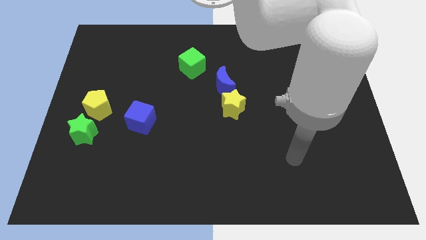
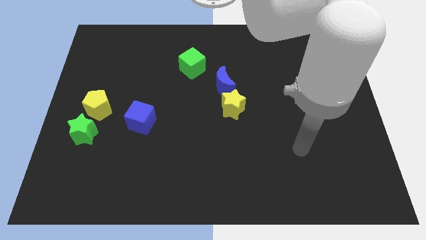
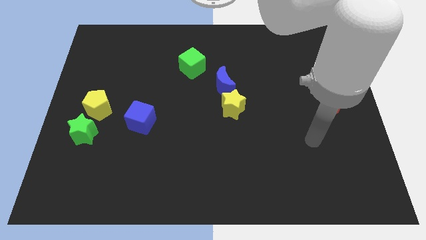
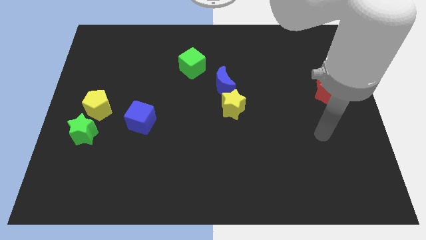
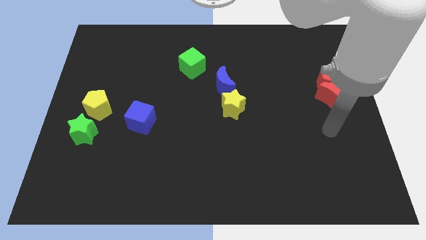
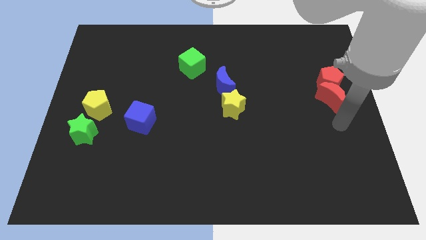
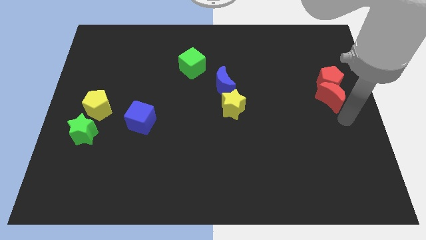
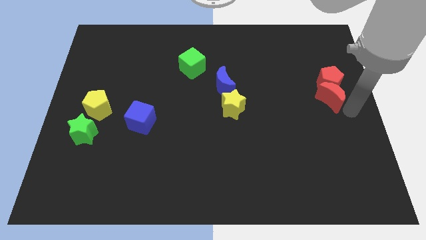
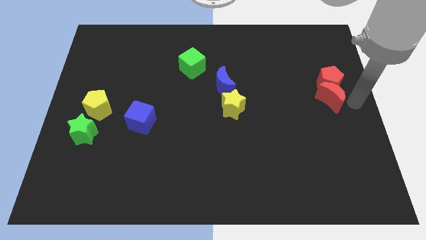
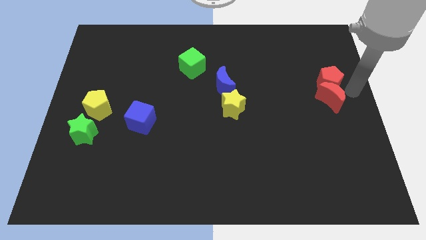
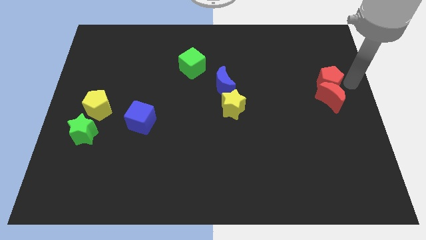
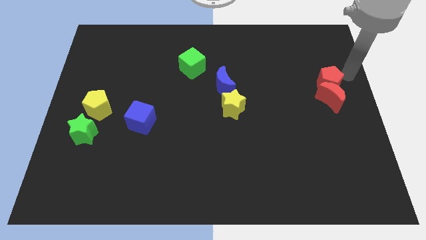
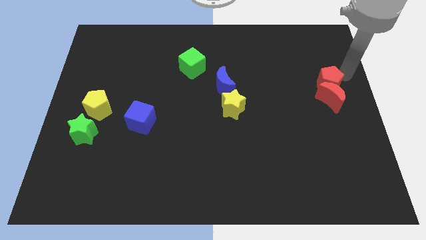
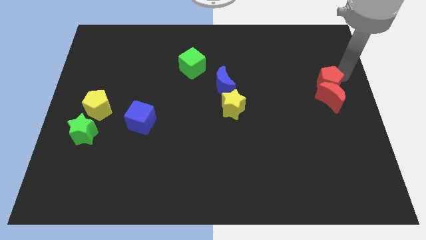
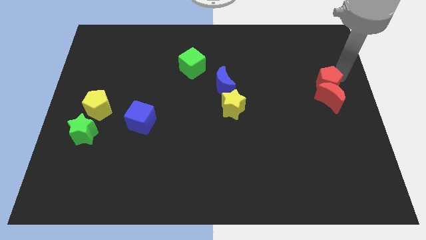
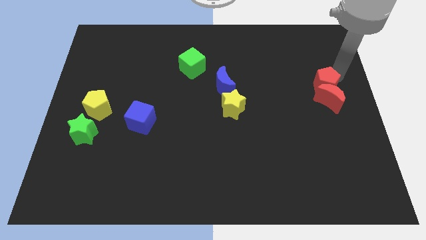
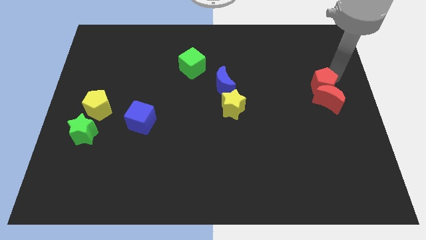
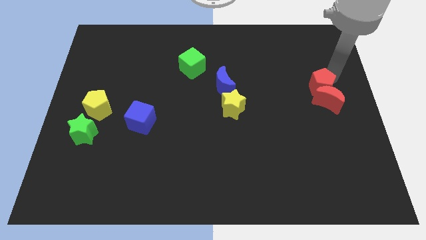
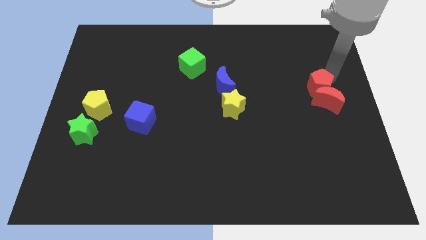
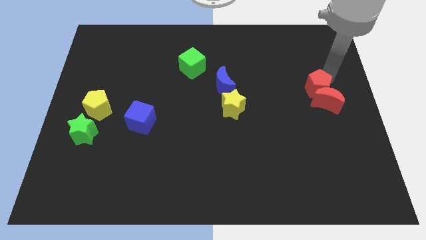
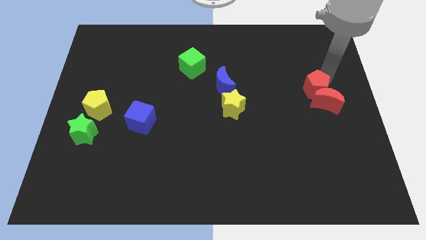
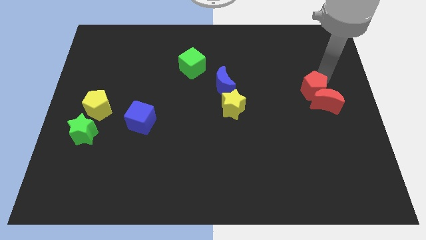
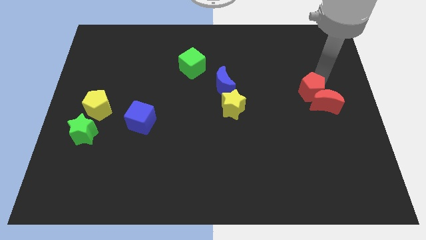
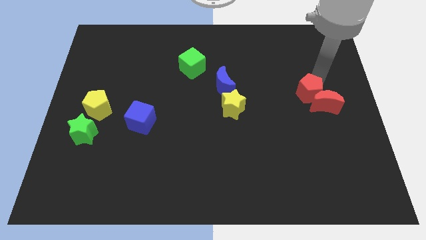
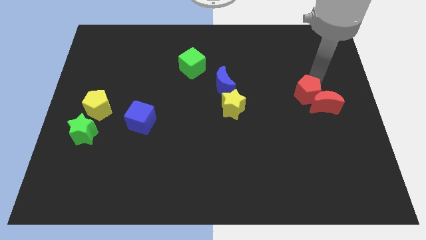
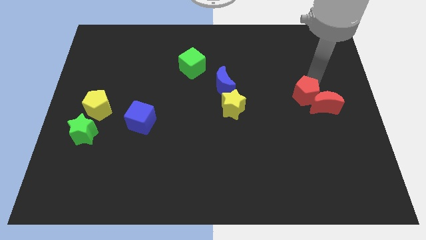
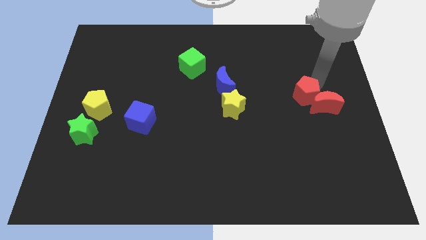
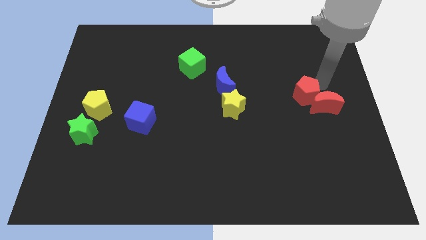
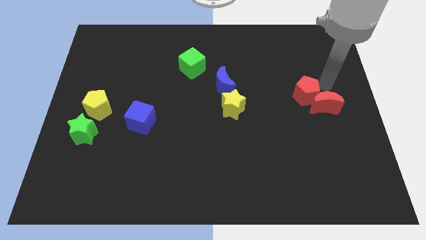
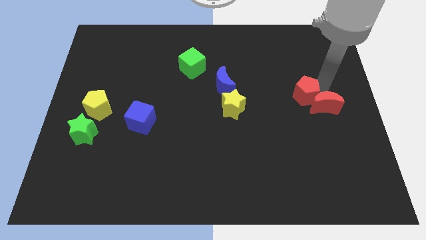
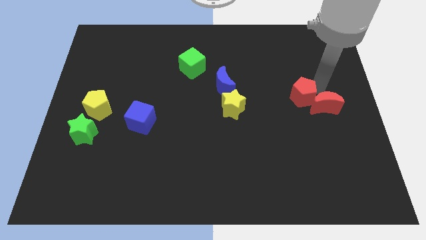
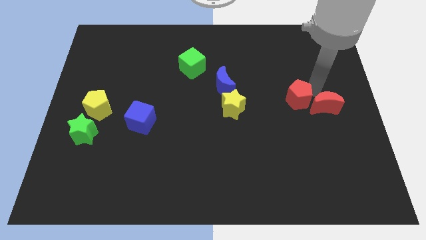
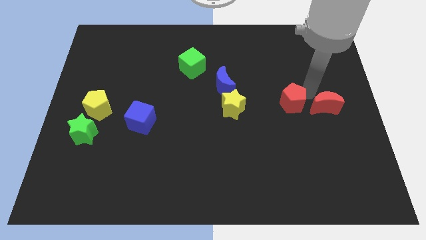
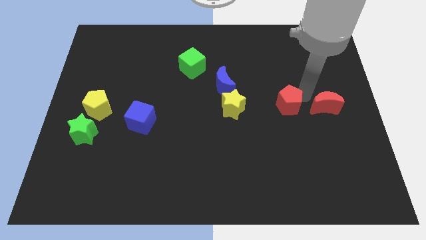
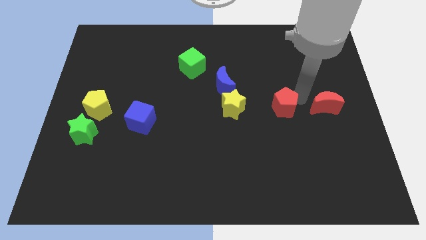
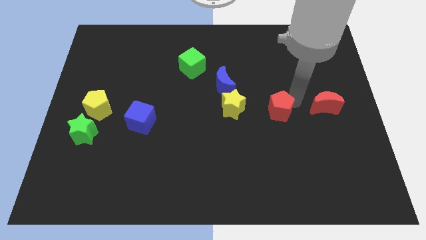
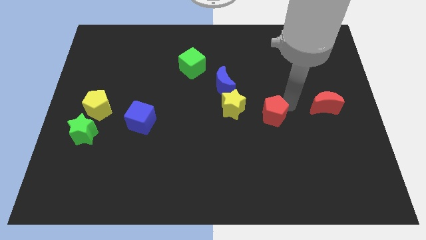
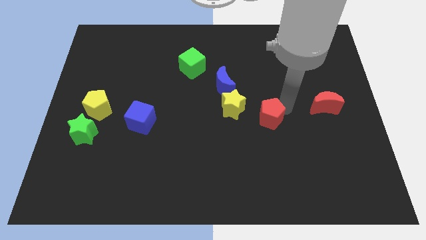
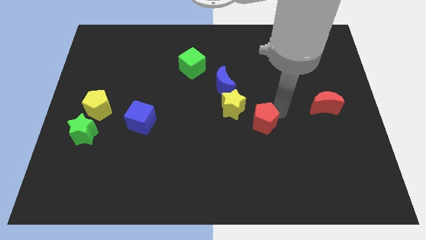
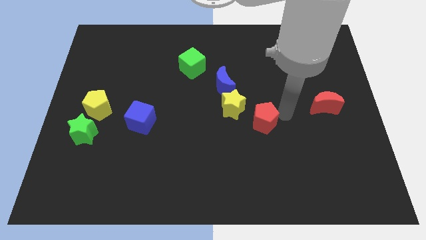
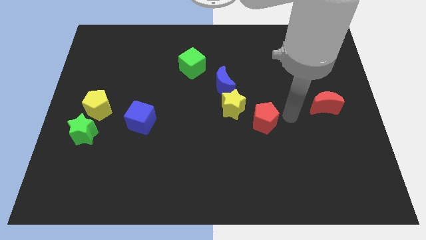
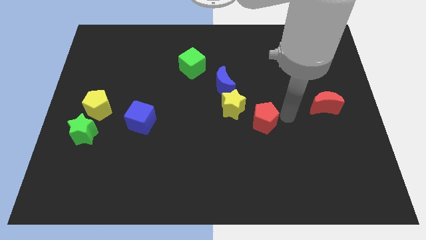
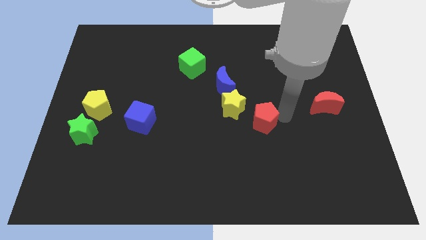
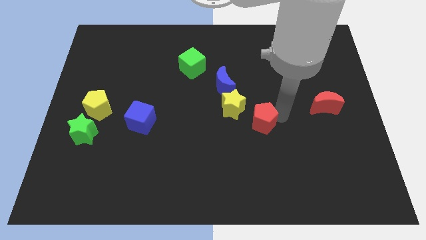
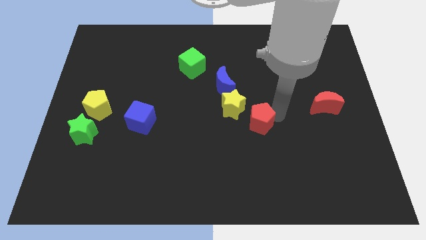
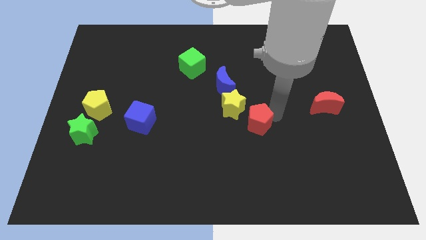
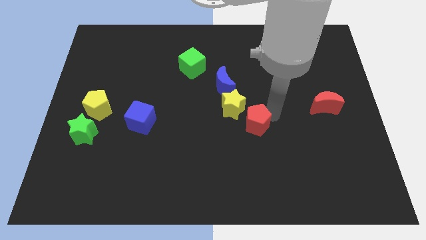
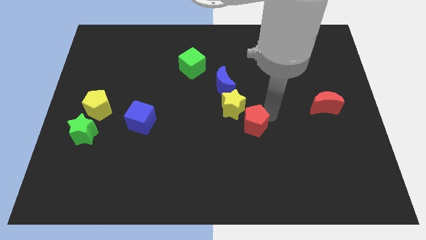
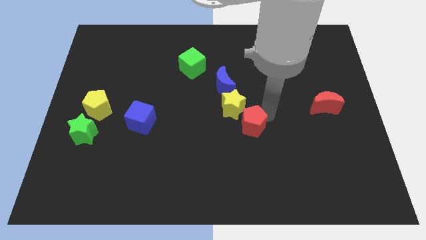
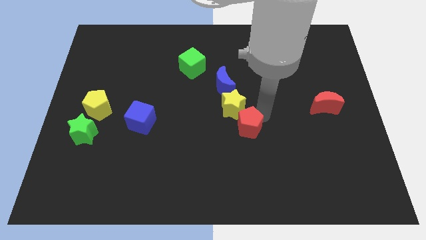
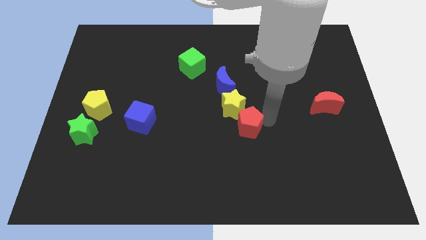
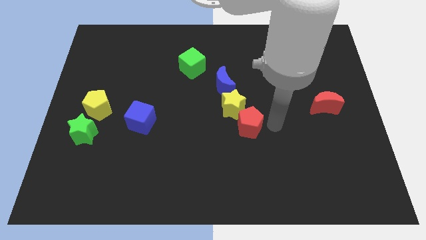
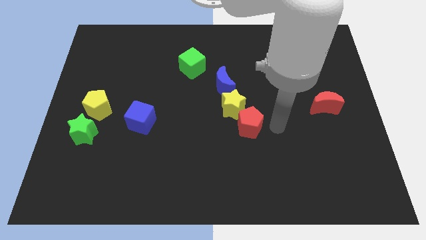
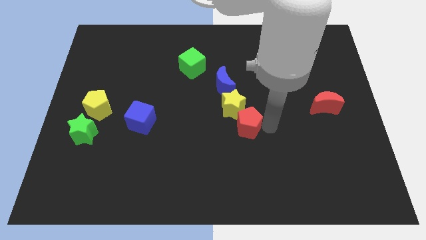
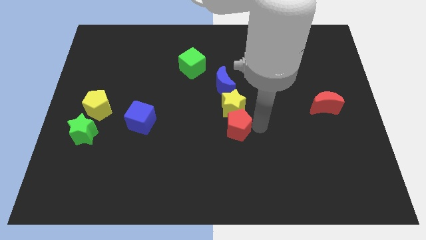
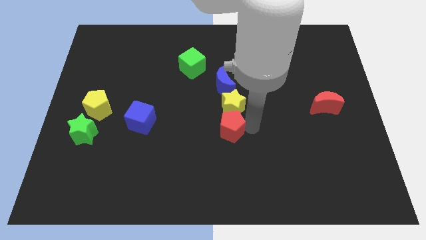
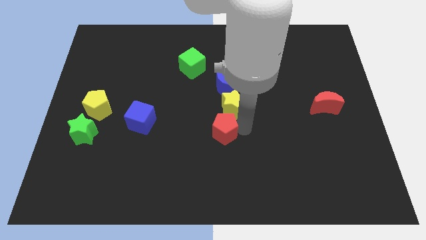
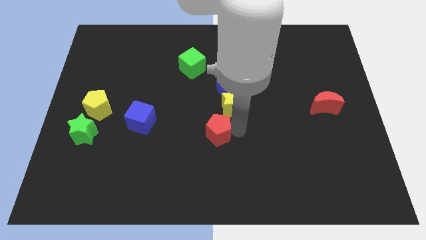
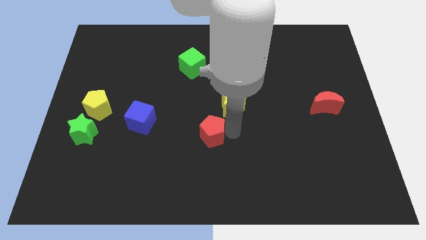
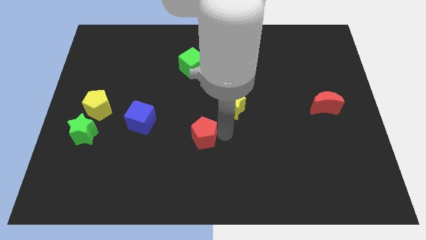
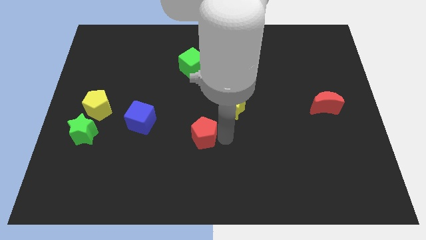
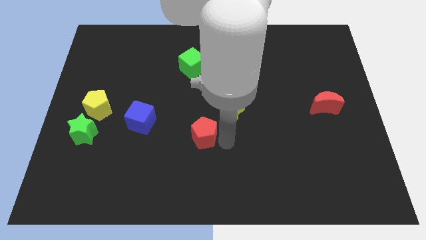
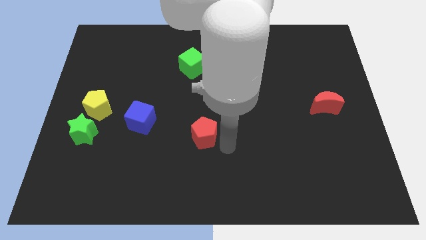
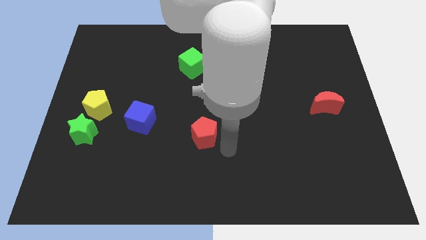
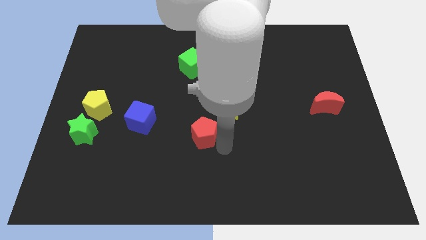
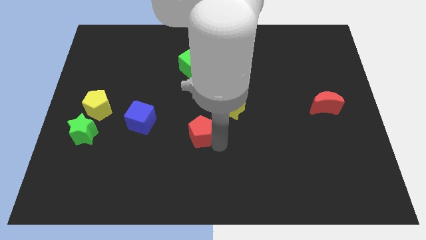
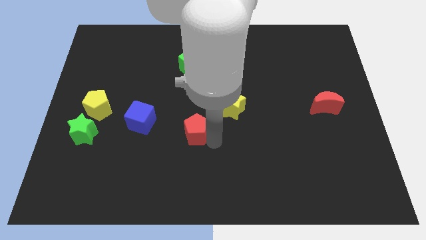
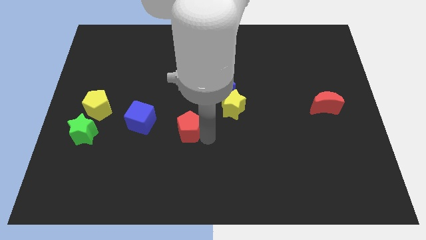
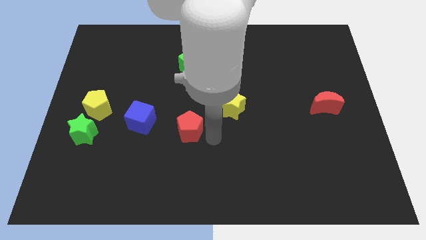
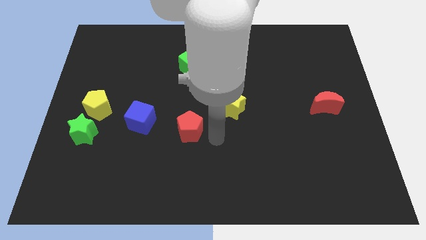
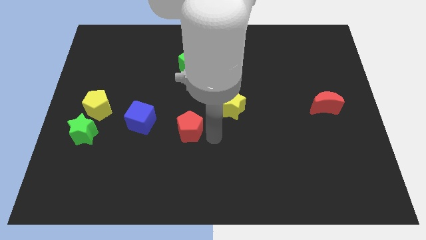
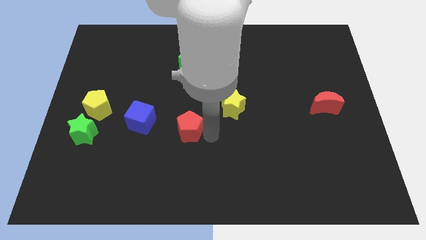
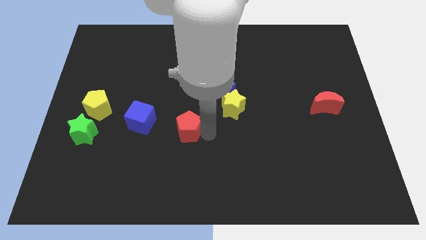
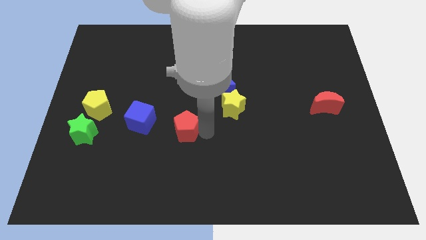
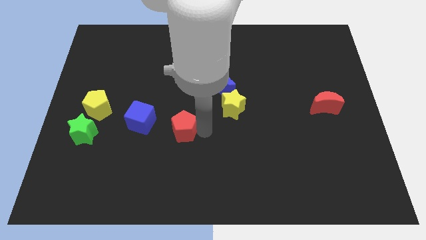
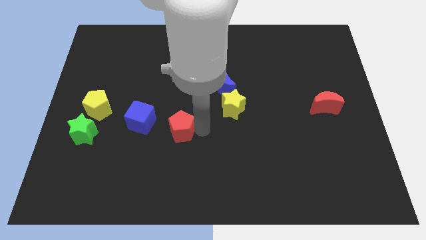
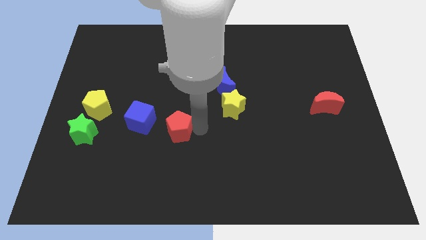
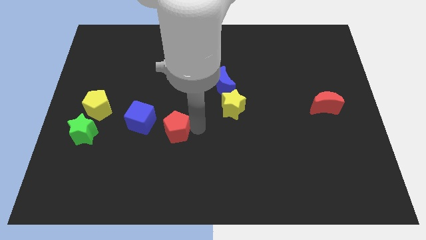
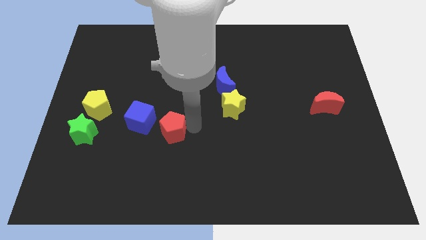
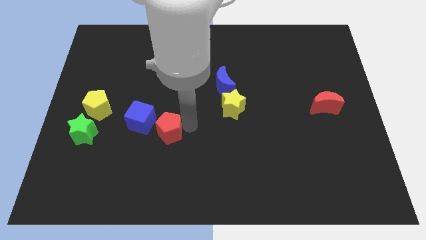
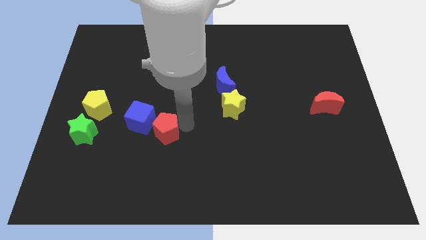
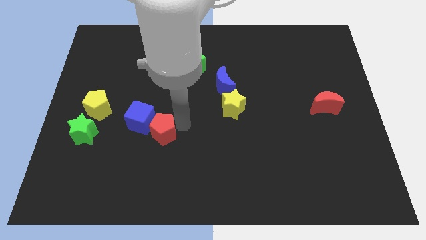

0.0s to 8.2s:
move the red pentagon next to the blue cube
